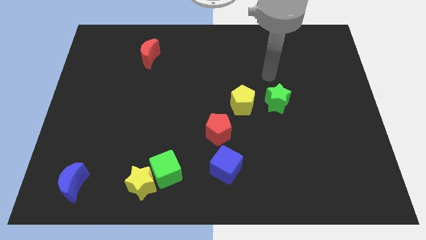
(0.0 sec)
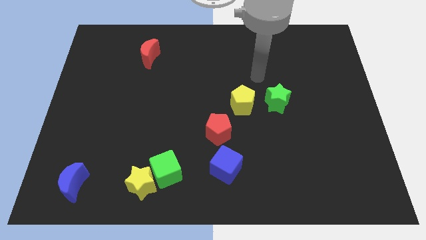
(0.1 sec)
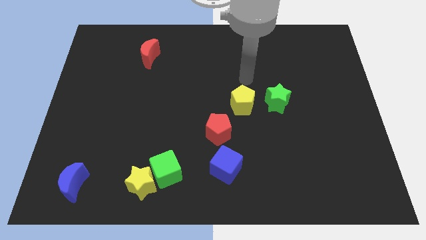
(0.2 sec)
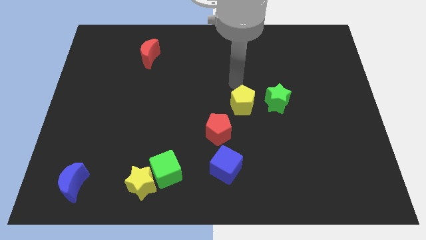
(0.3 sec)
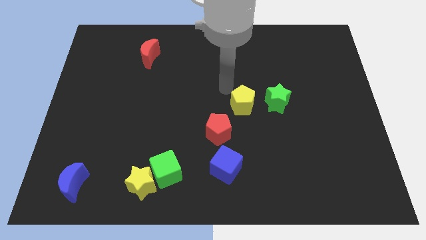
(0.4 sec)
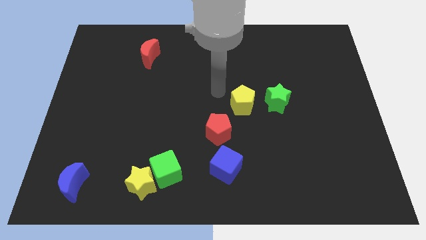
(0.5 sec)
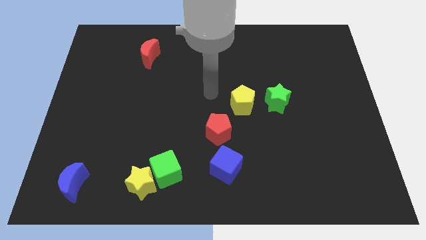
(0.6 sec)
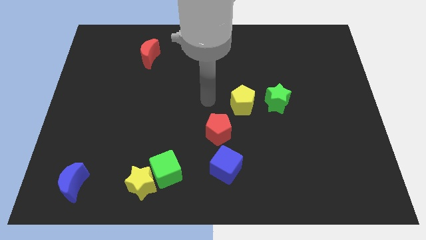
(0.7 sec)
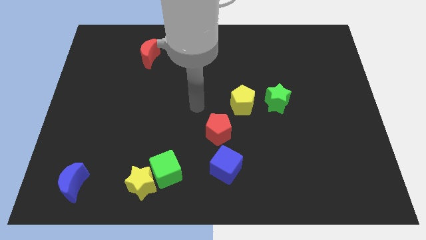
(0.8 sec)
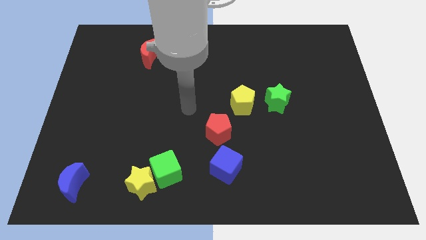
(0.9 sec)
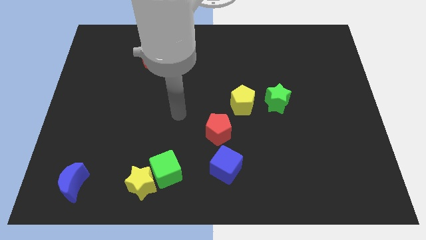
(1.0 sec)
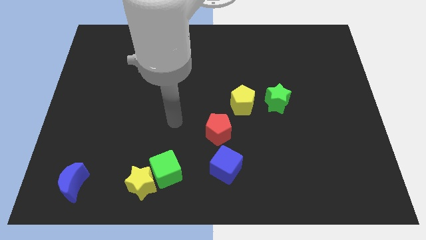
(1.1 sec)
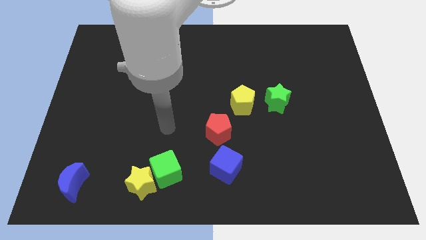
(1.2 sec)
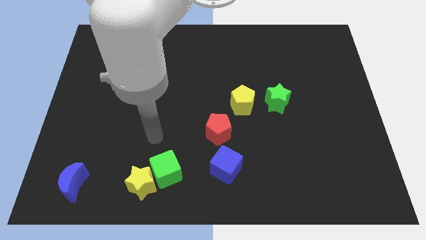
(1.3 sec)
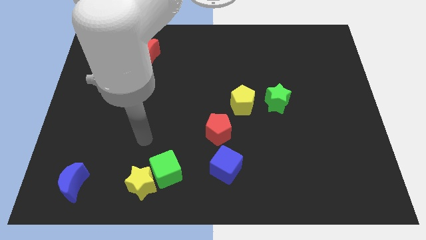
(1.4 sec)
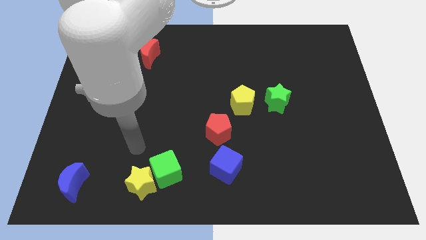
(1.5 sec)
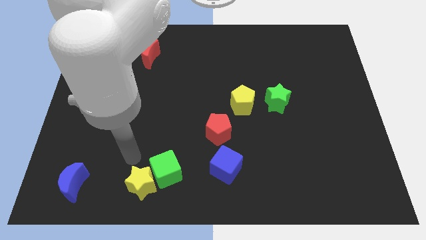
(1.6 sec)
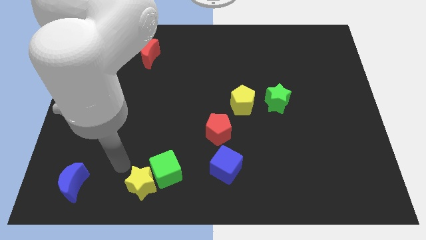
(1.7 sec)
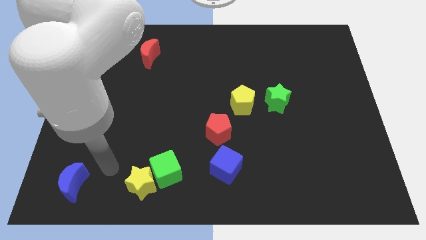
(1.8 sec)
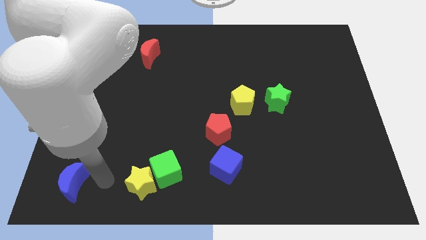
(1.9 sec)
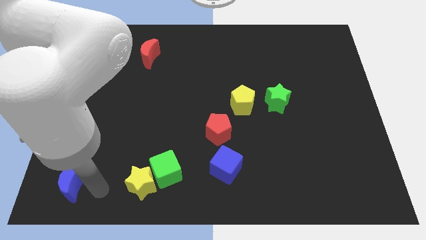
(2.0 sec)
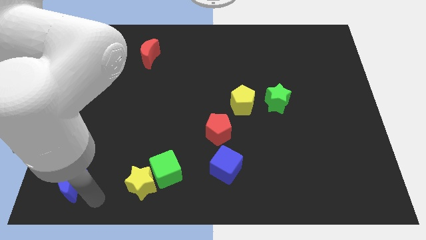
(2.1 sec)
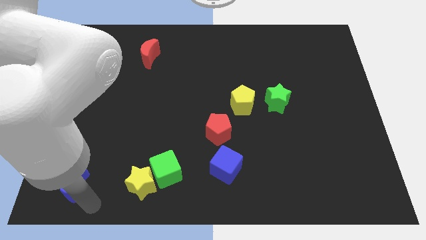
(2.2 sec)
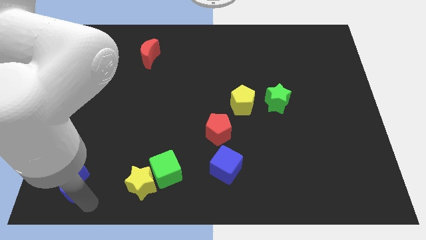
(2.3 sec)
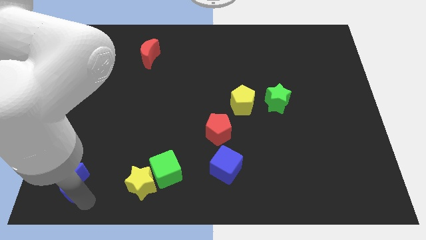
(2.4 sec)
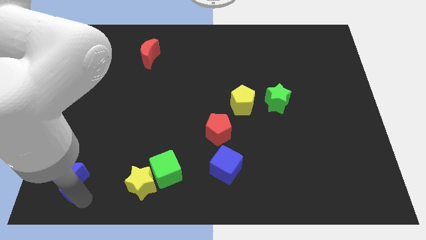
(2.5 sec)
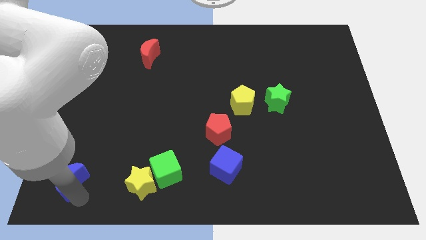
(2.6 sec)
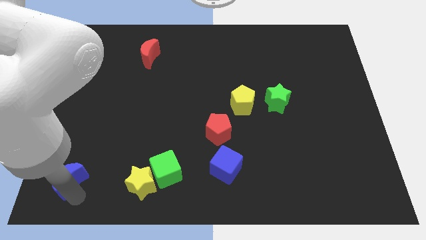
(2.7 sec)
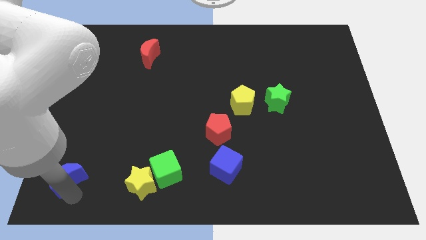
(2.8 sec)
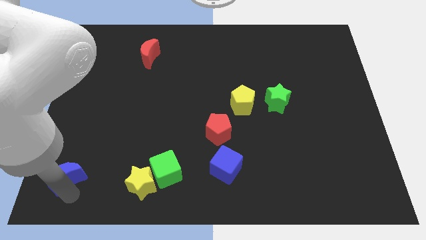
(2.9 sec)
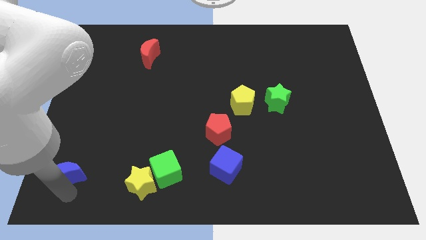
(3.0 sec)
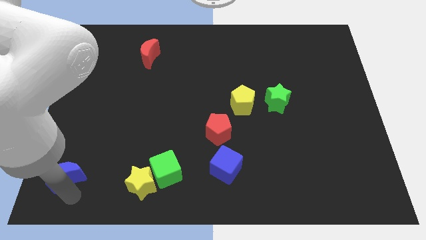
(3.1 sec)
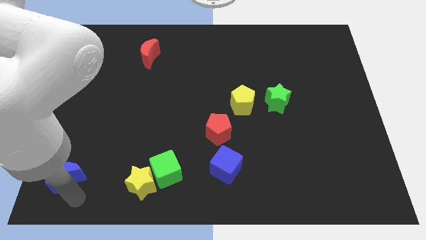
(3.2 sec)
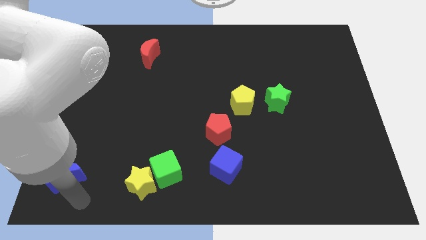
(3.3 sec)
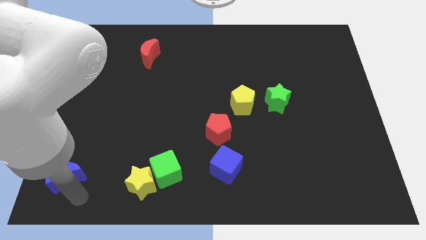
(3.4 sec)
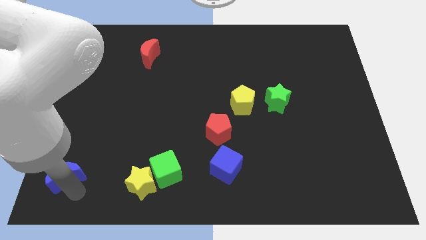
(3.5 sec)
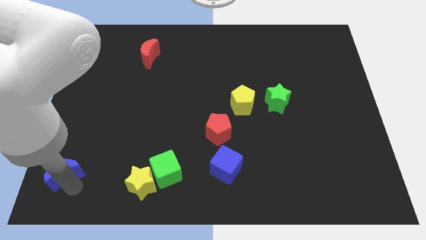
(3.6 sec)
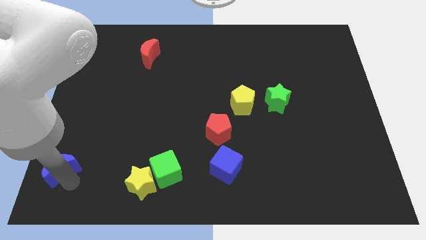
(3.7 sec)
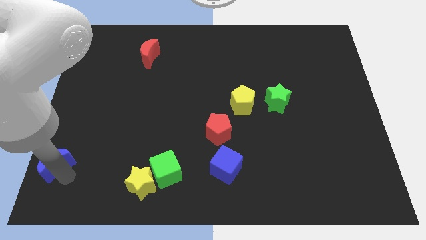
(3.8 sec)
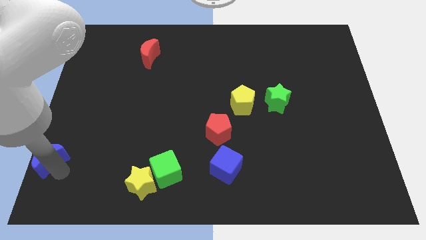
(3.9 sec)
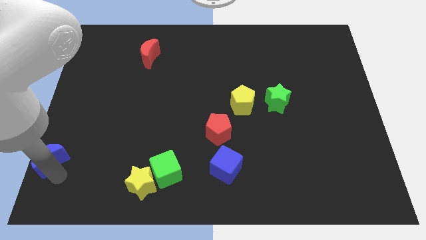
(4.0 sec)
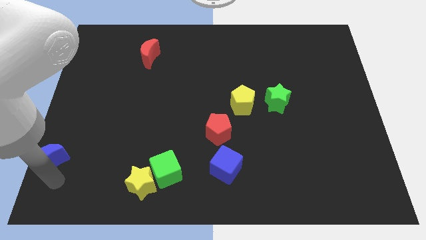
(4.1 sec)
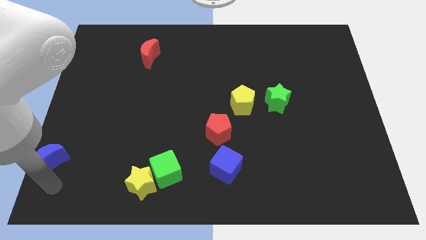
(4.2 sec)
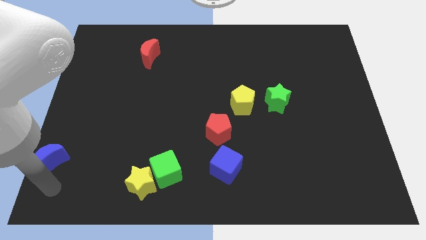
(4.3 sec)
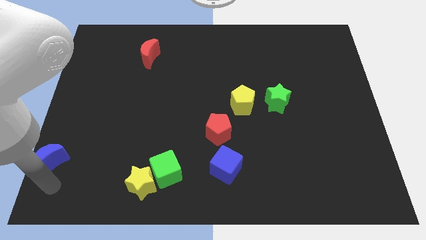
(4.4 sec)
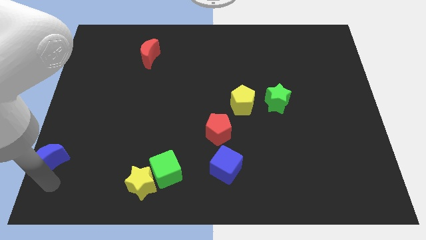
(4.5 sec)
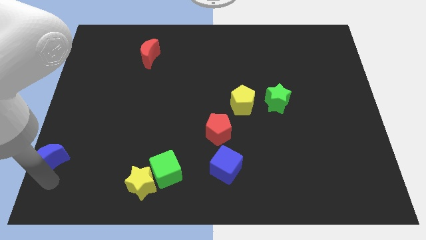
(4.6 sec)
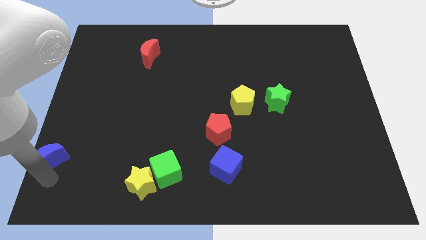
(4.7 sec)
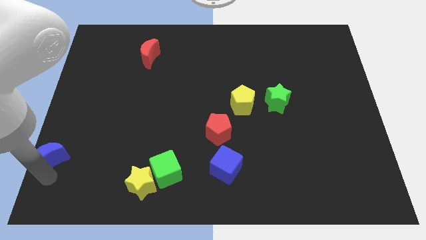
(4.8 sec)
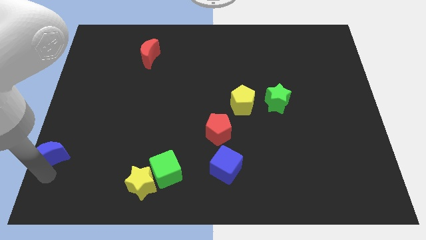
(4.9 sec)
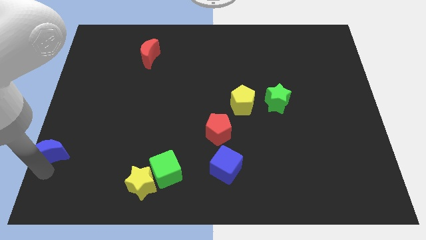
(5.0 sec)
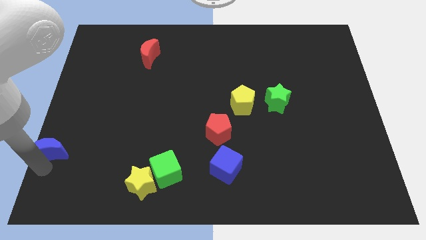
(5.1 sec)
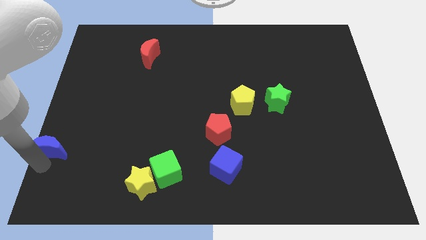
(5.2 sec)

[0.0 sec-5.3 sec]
move the blue moon to the left side
